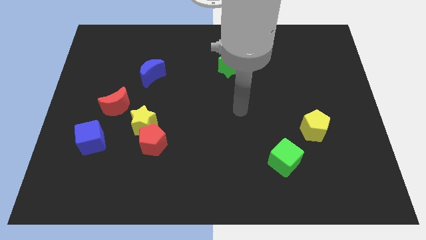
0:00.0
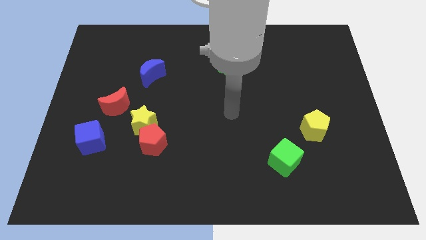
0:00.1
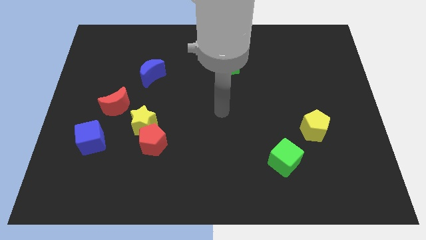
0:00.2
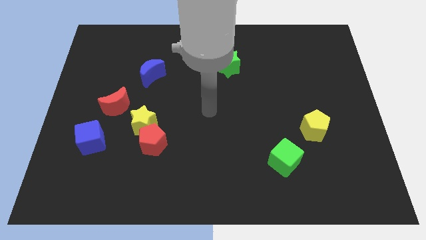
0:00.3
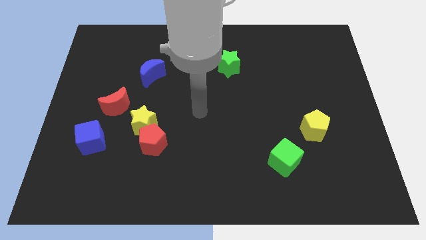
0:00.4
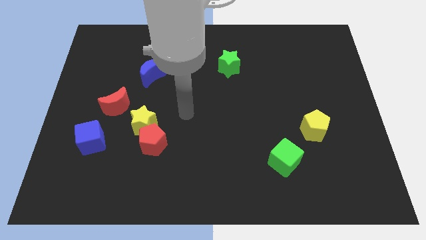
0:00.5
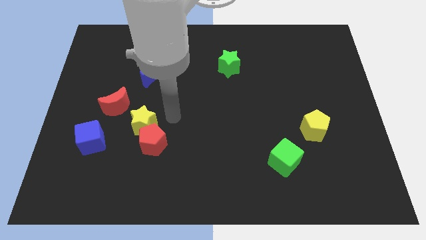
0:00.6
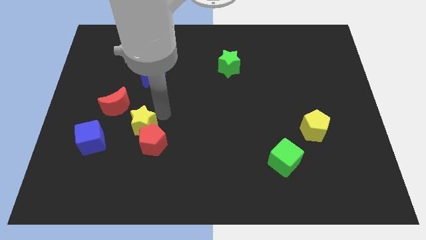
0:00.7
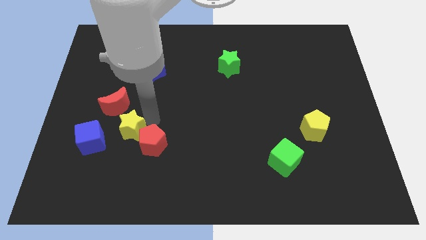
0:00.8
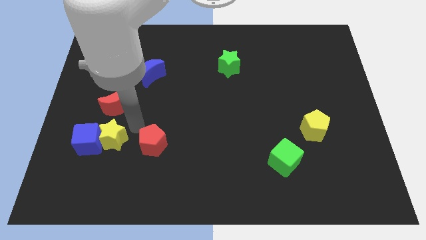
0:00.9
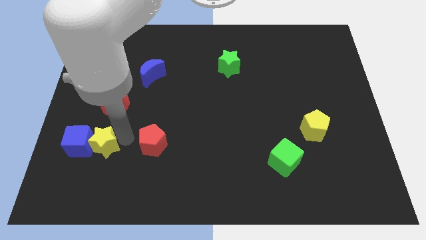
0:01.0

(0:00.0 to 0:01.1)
separate the red pentagon from the yellow star

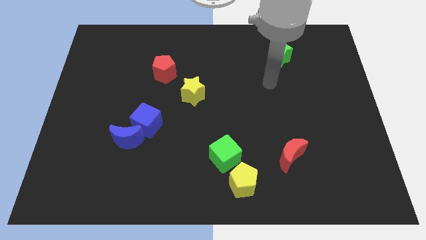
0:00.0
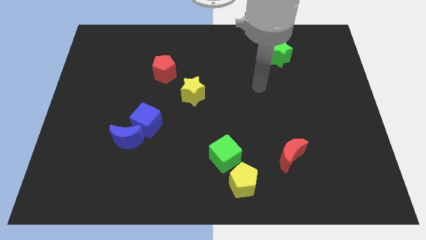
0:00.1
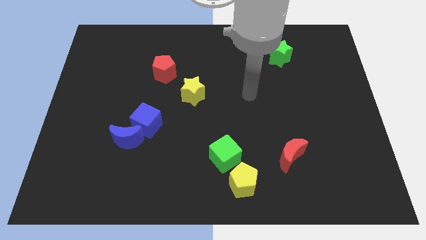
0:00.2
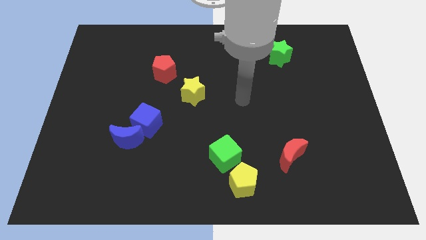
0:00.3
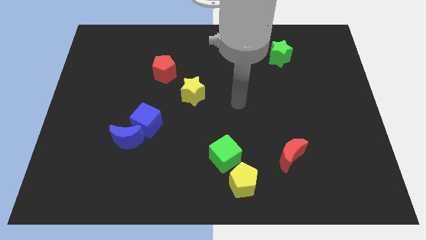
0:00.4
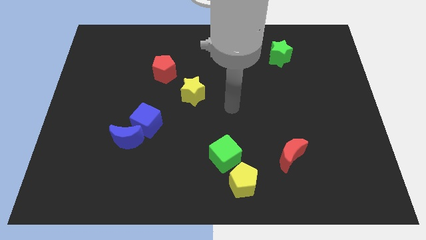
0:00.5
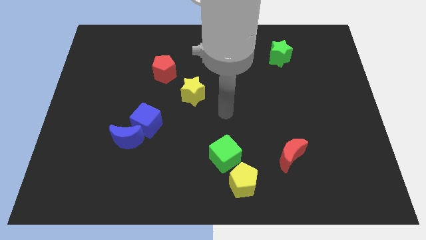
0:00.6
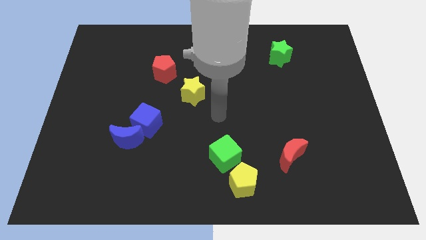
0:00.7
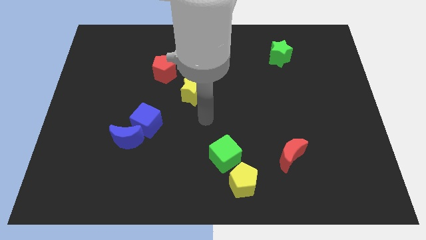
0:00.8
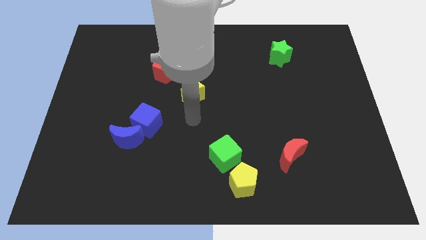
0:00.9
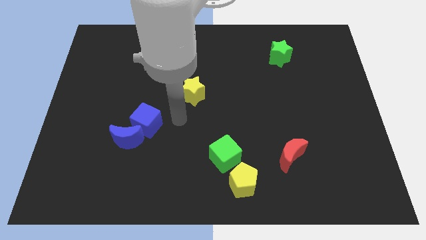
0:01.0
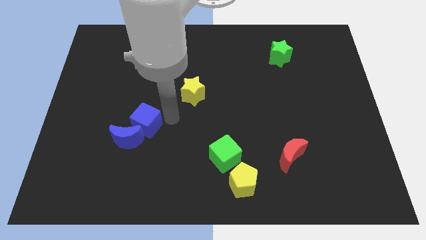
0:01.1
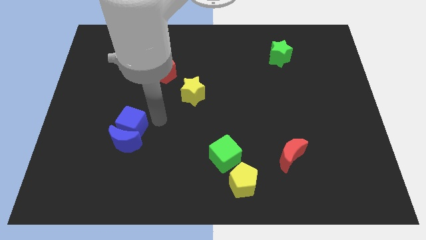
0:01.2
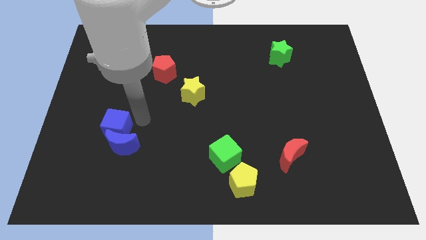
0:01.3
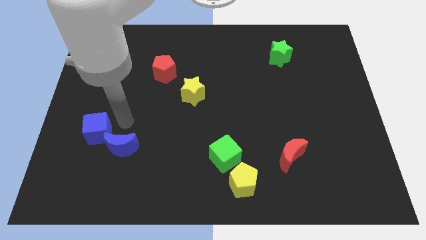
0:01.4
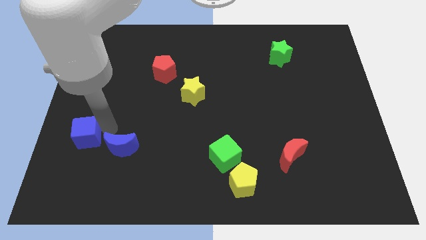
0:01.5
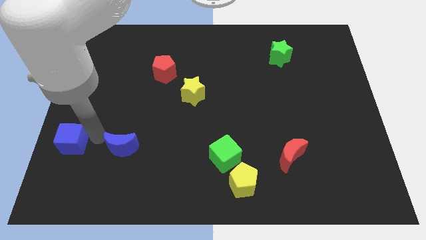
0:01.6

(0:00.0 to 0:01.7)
pull the blue moon apart from the blue cube

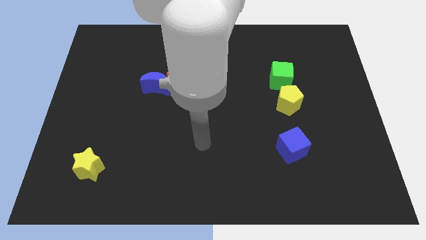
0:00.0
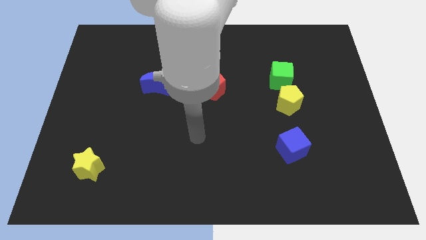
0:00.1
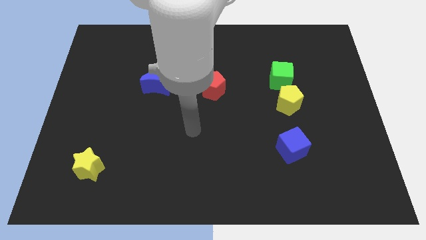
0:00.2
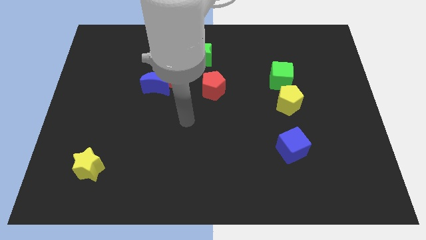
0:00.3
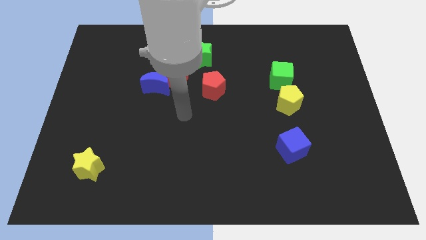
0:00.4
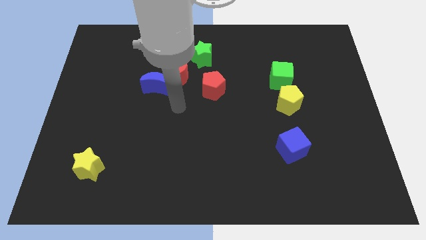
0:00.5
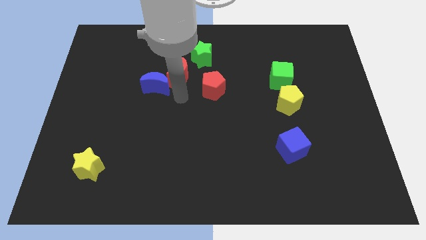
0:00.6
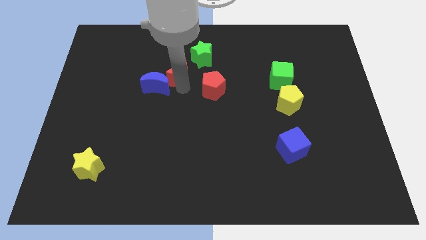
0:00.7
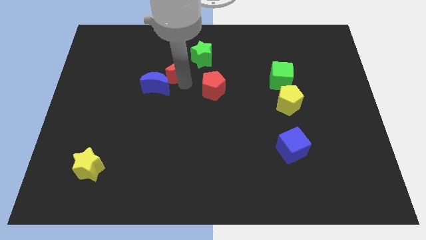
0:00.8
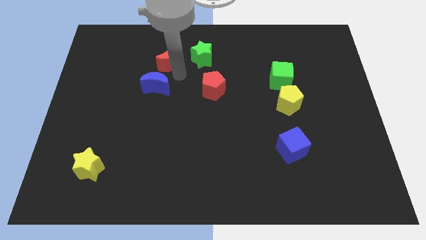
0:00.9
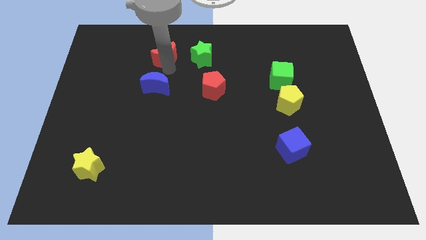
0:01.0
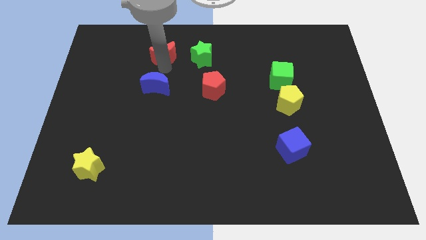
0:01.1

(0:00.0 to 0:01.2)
move the blue moon away from the red moon

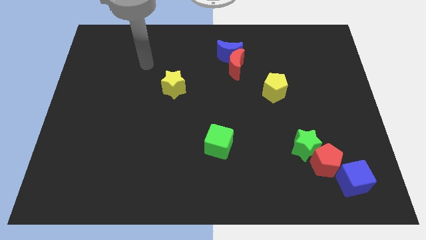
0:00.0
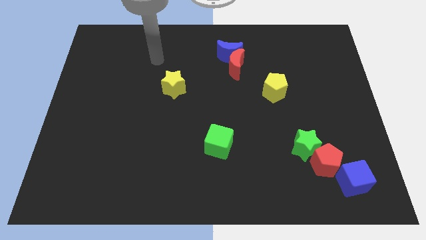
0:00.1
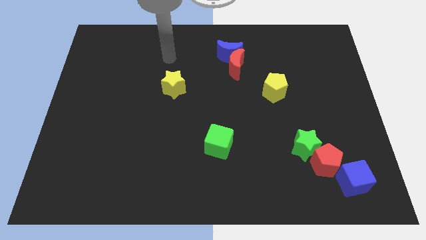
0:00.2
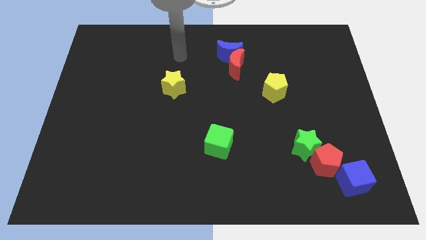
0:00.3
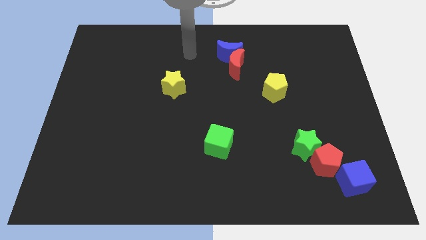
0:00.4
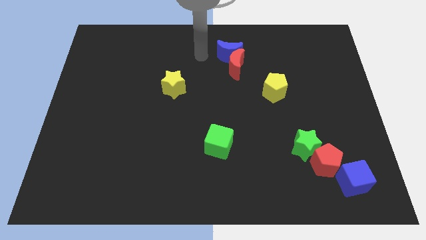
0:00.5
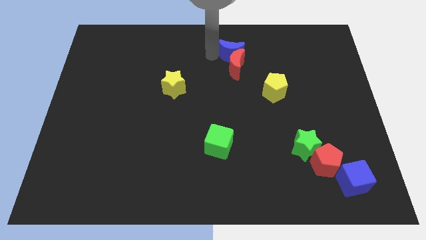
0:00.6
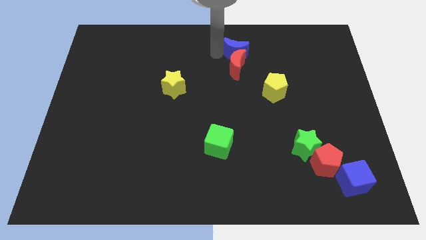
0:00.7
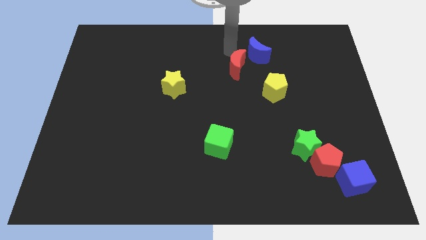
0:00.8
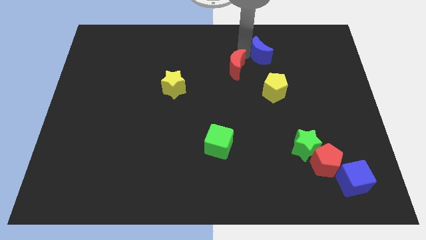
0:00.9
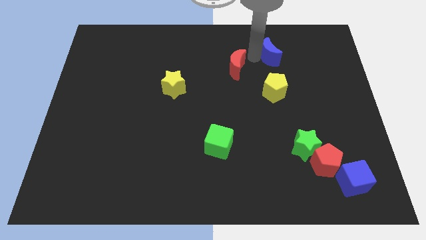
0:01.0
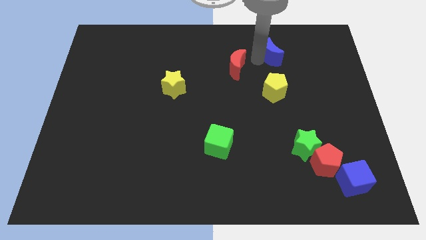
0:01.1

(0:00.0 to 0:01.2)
pull the red moon apart from the blue moon

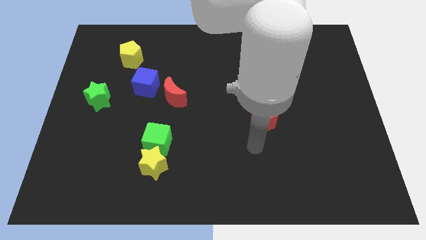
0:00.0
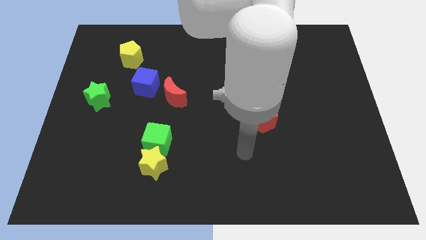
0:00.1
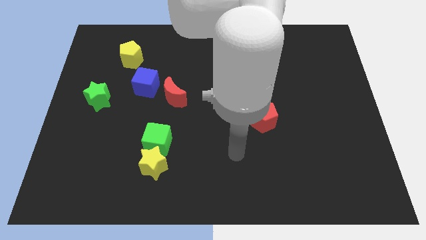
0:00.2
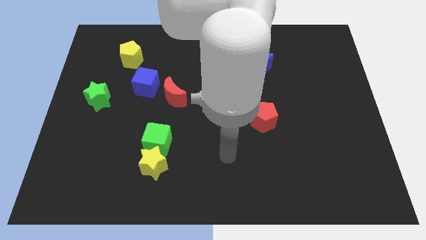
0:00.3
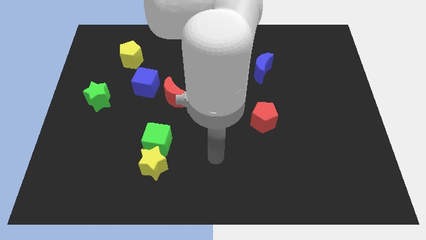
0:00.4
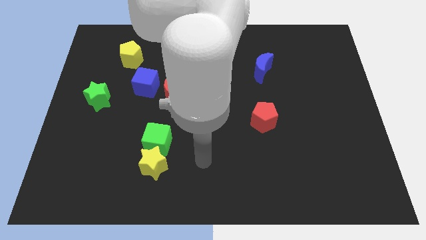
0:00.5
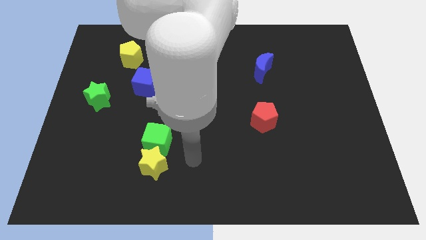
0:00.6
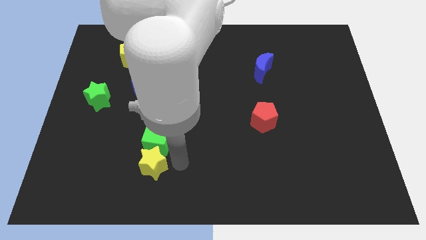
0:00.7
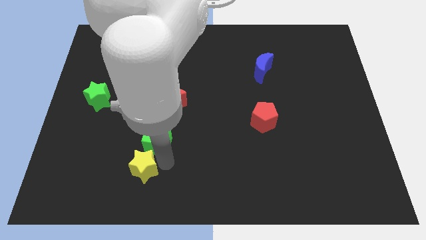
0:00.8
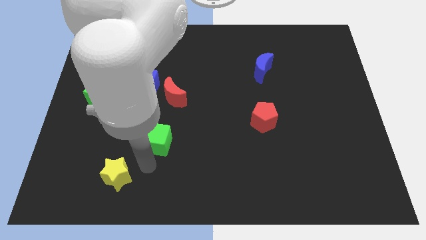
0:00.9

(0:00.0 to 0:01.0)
move the green cube away from the yellow star

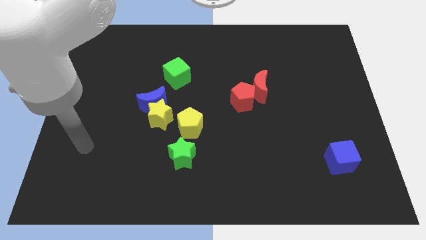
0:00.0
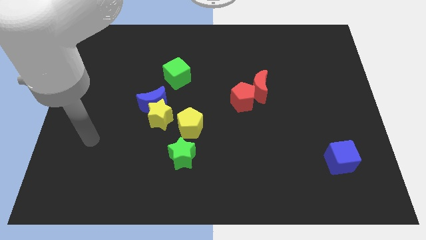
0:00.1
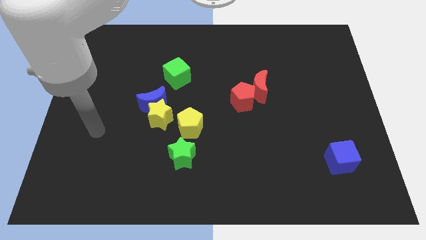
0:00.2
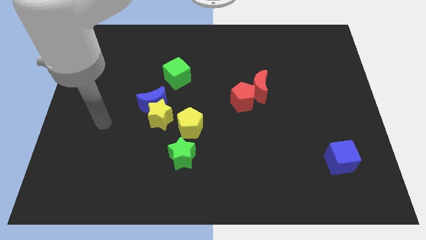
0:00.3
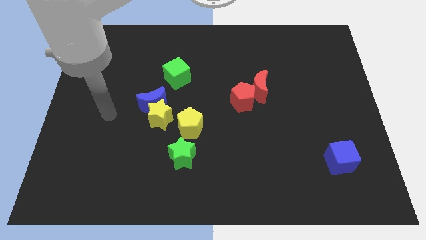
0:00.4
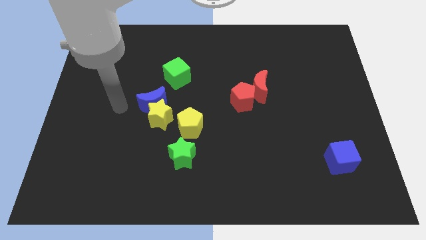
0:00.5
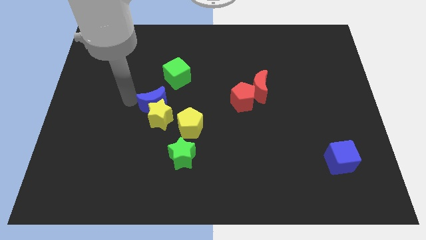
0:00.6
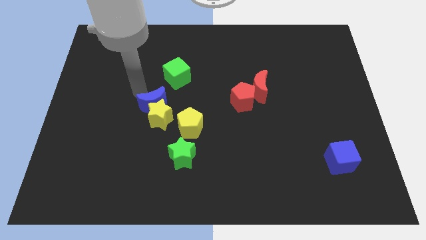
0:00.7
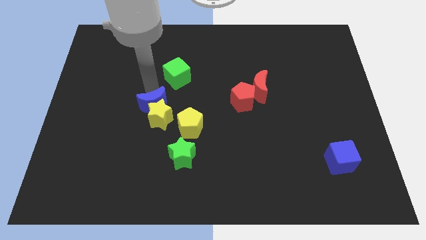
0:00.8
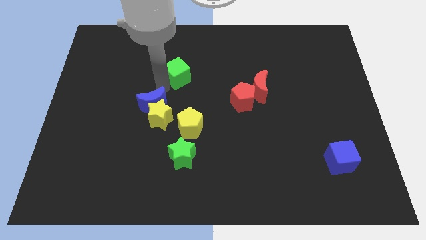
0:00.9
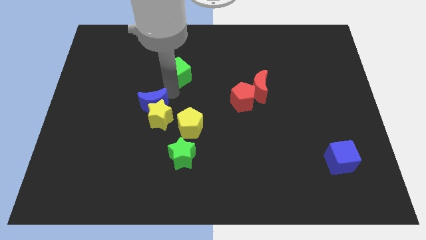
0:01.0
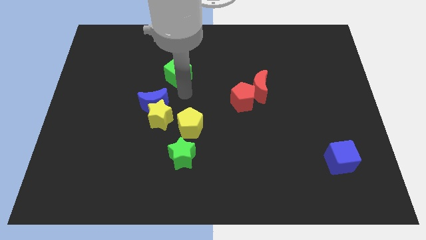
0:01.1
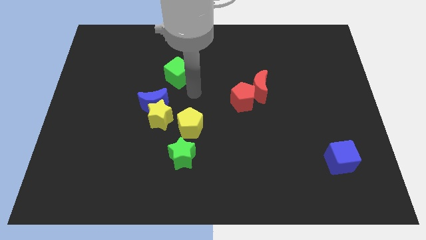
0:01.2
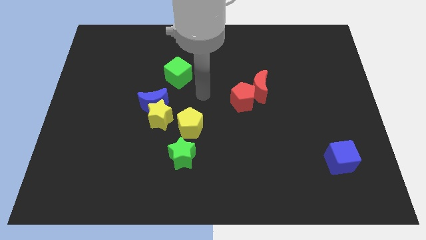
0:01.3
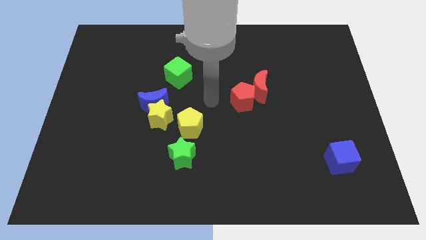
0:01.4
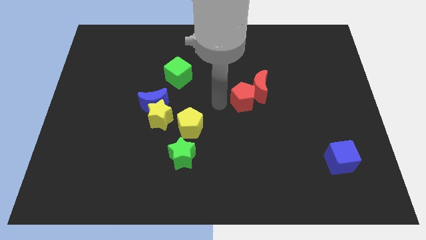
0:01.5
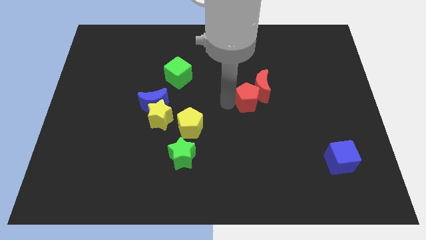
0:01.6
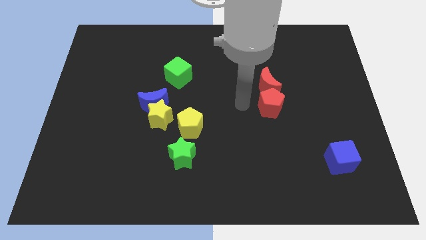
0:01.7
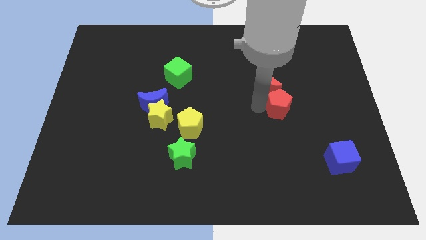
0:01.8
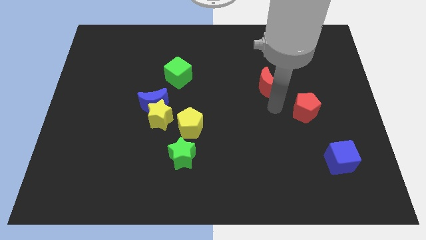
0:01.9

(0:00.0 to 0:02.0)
move the red moon away from the red pentagon

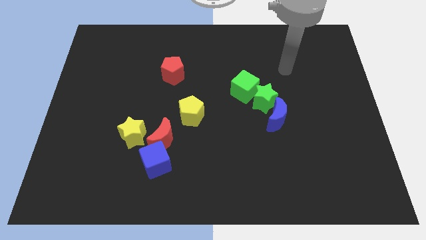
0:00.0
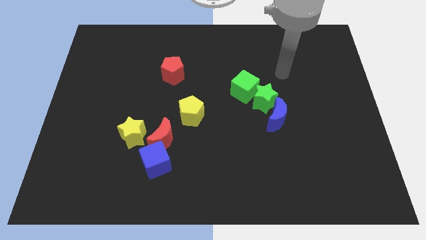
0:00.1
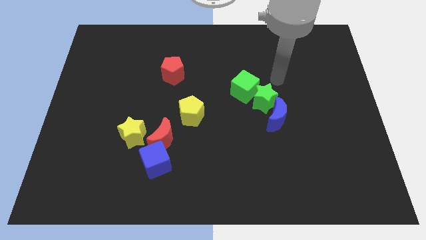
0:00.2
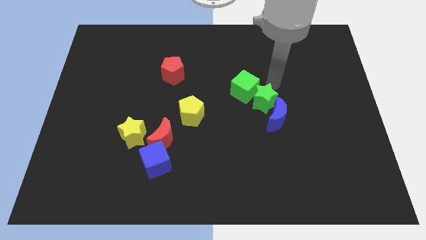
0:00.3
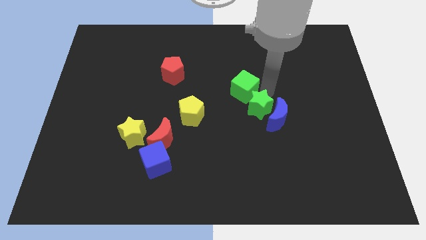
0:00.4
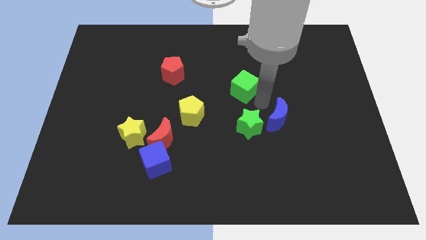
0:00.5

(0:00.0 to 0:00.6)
separate the green cube from the green star

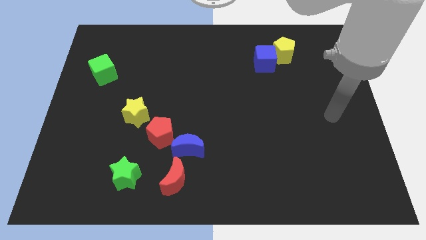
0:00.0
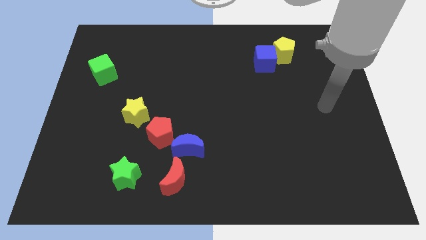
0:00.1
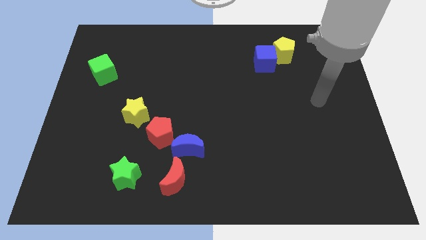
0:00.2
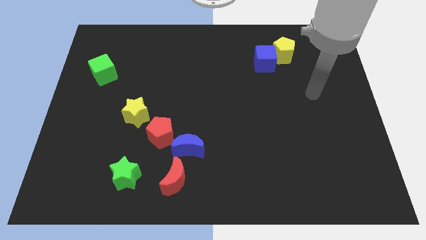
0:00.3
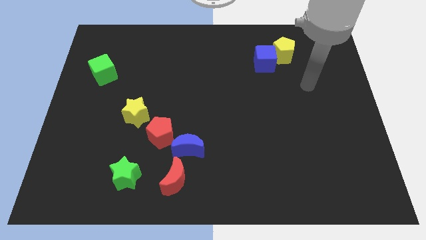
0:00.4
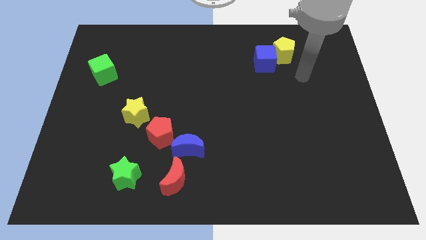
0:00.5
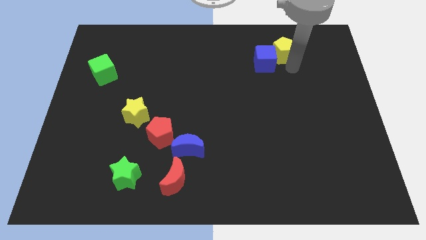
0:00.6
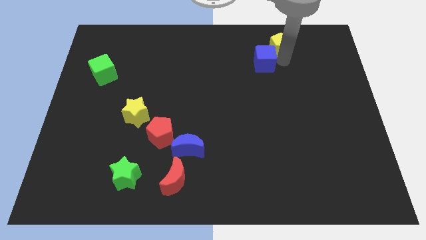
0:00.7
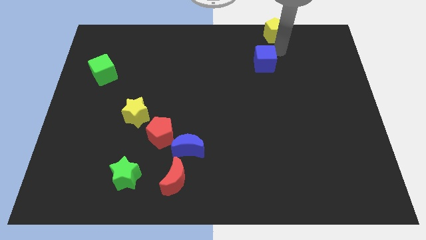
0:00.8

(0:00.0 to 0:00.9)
separate the blue cube from the yellow pentagon
